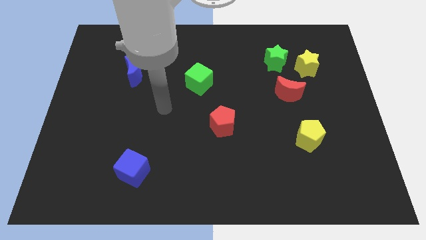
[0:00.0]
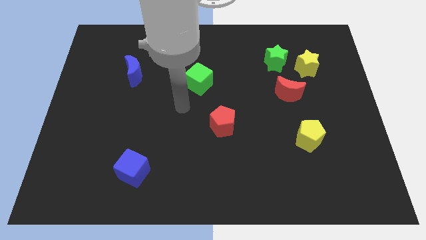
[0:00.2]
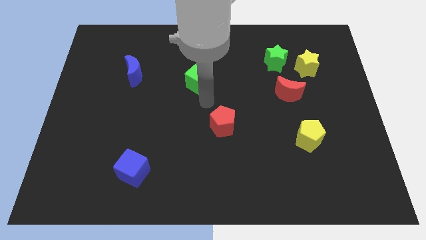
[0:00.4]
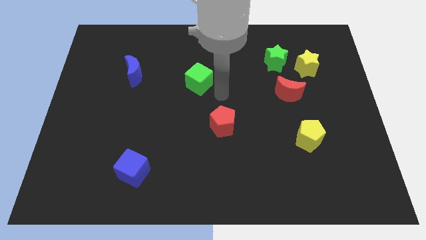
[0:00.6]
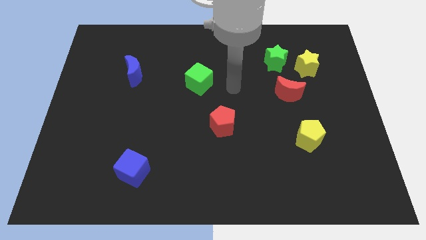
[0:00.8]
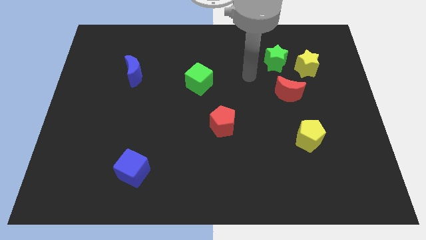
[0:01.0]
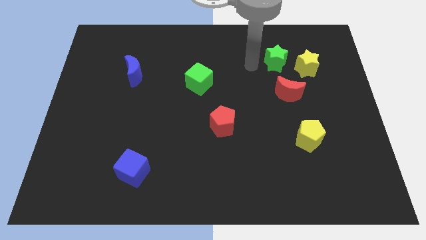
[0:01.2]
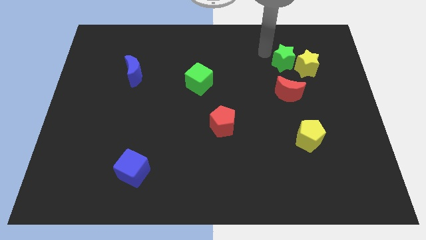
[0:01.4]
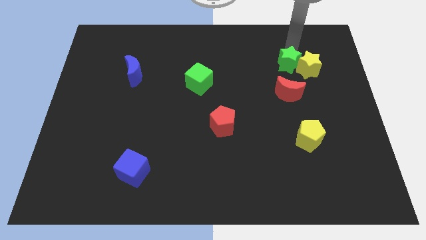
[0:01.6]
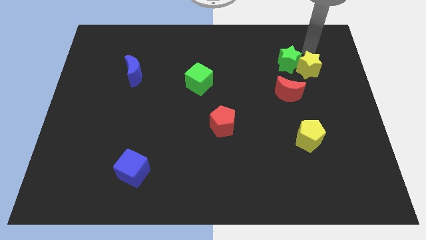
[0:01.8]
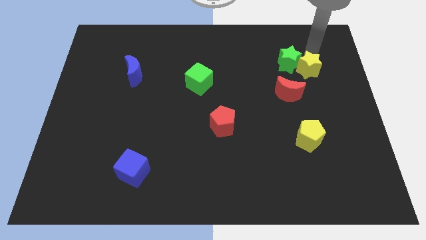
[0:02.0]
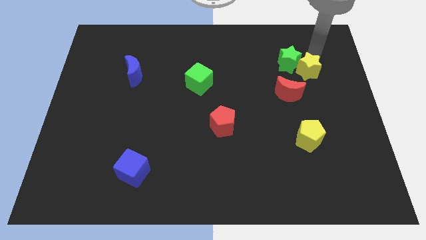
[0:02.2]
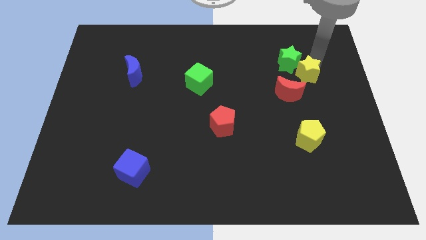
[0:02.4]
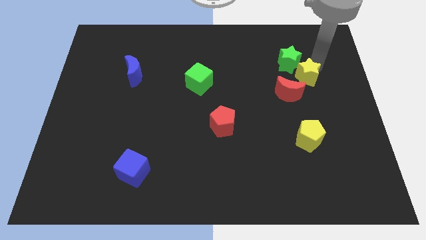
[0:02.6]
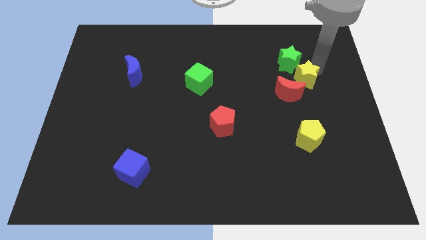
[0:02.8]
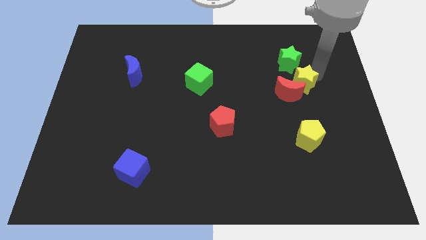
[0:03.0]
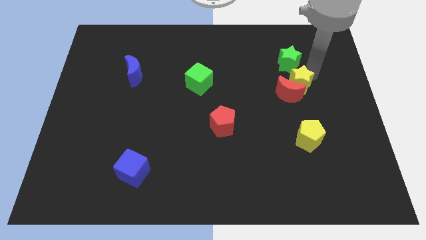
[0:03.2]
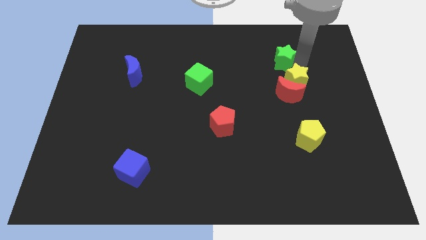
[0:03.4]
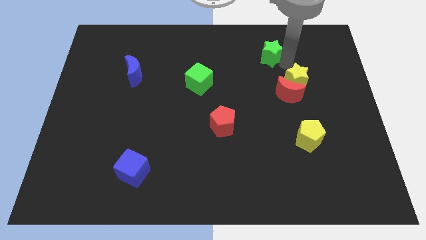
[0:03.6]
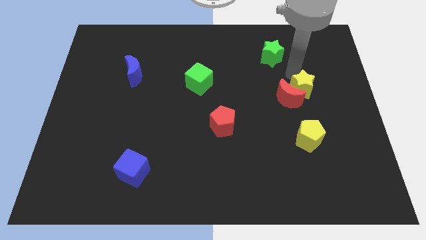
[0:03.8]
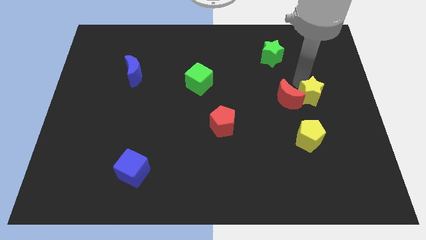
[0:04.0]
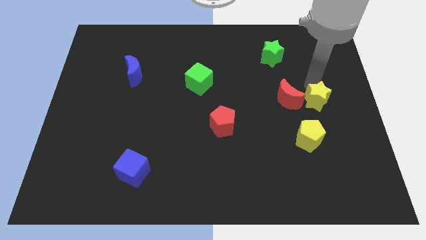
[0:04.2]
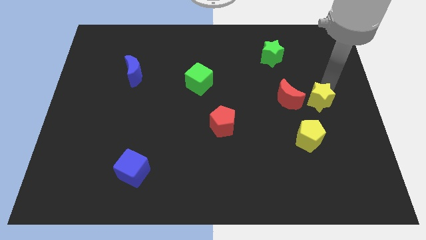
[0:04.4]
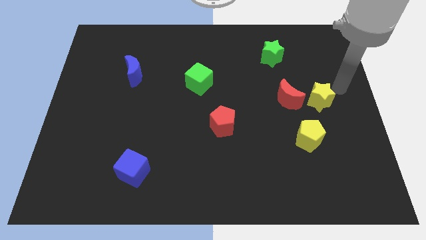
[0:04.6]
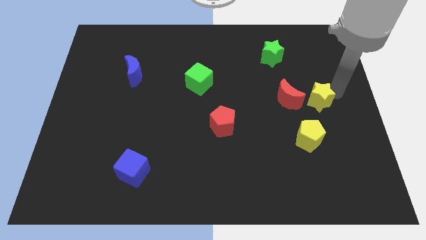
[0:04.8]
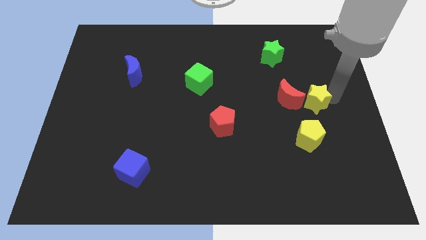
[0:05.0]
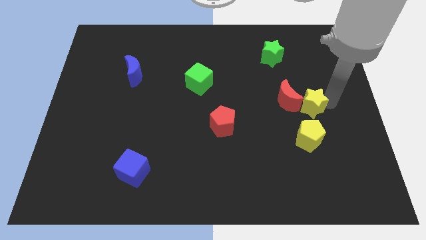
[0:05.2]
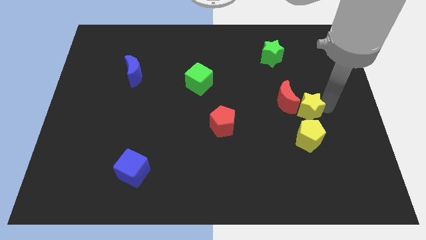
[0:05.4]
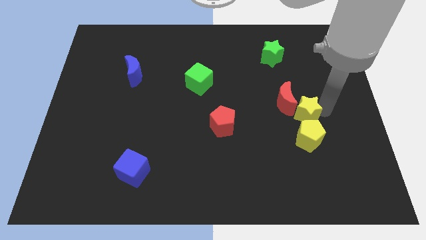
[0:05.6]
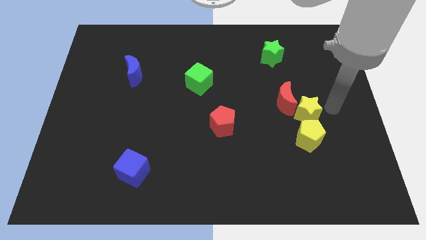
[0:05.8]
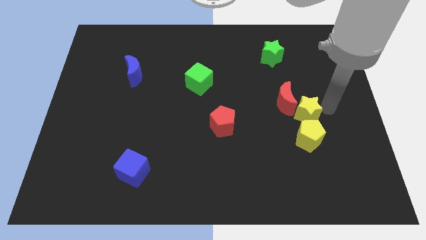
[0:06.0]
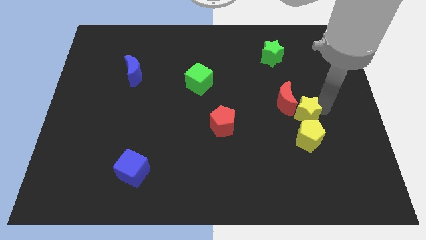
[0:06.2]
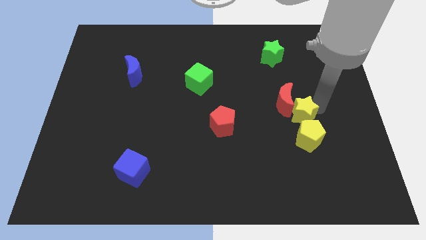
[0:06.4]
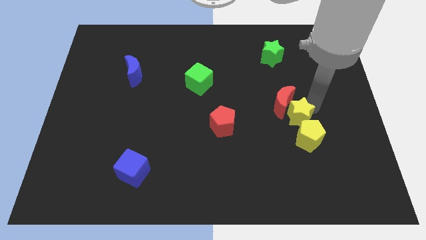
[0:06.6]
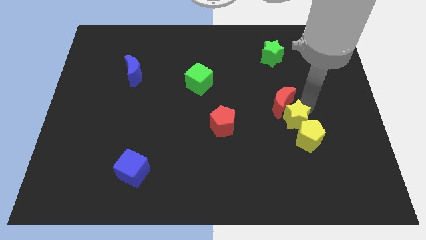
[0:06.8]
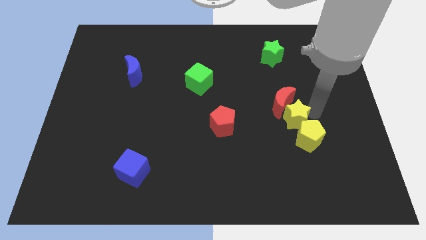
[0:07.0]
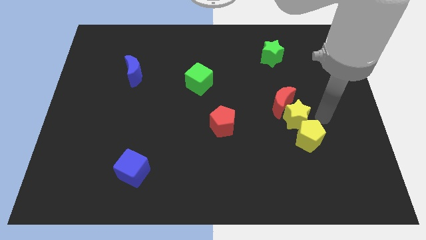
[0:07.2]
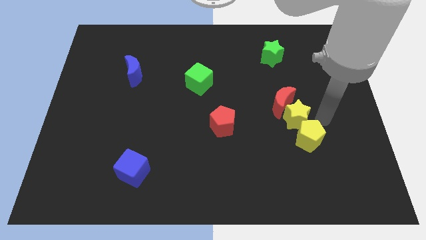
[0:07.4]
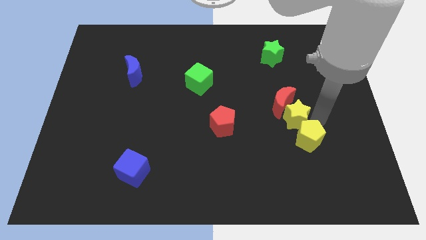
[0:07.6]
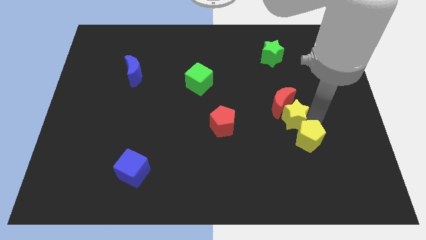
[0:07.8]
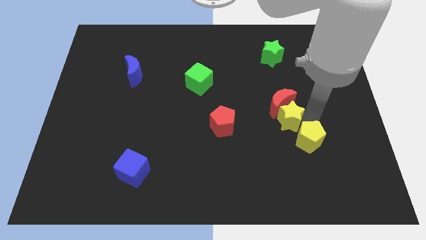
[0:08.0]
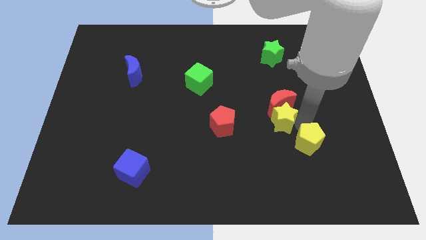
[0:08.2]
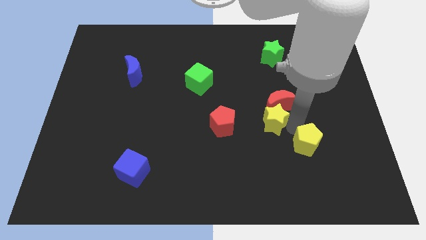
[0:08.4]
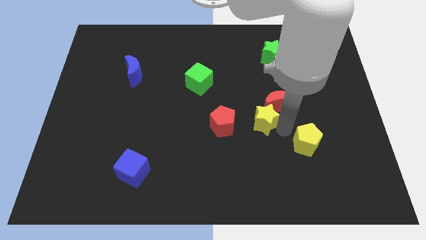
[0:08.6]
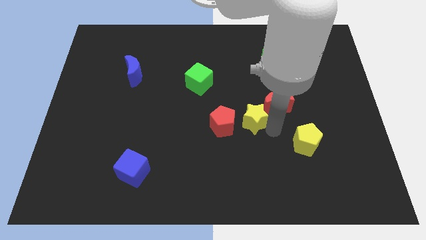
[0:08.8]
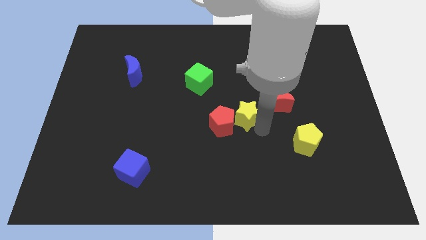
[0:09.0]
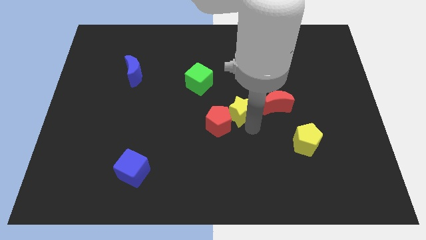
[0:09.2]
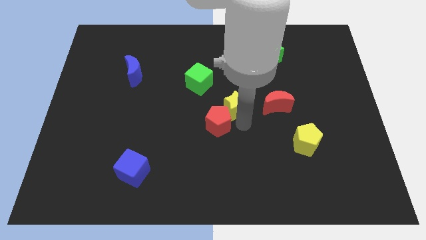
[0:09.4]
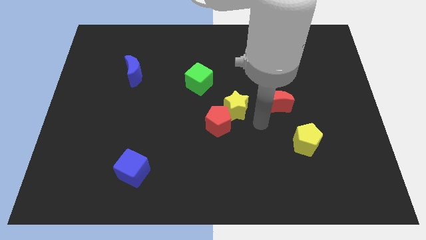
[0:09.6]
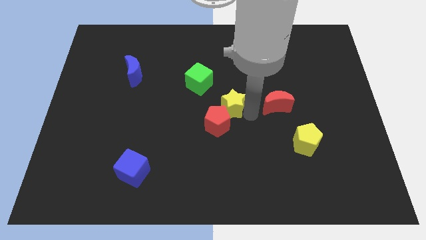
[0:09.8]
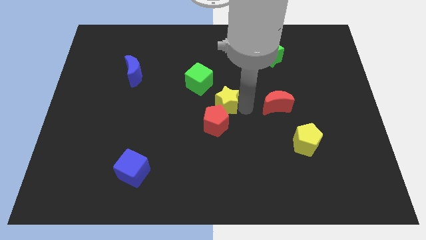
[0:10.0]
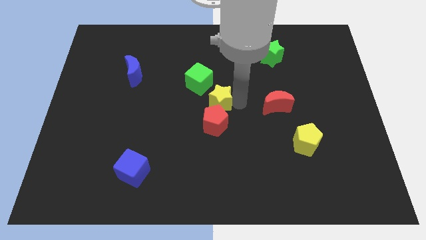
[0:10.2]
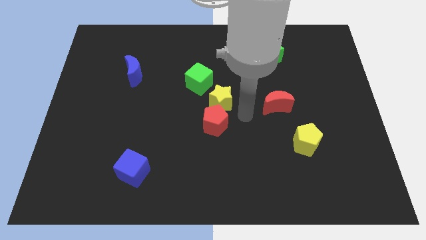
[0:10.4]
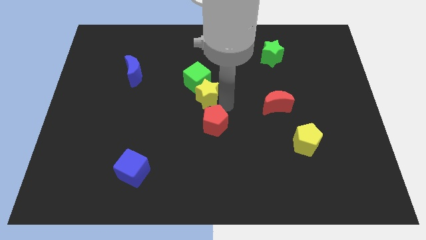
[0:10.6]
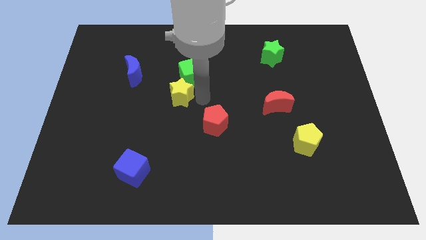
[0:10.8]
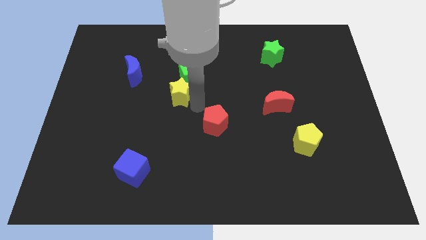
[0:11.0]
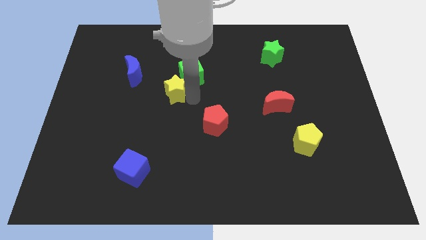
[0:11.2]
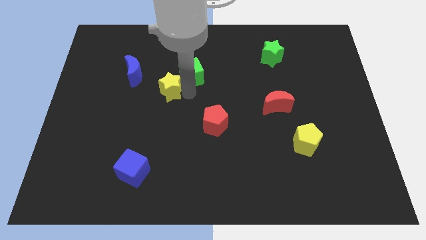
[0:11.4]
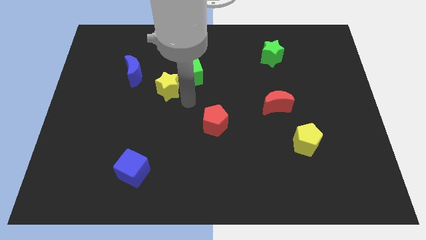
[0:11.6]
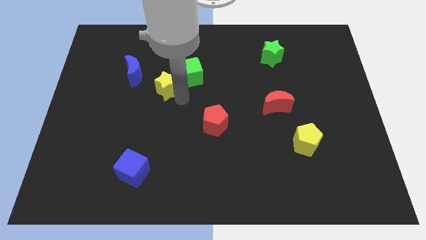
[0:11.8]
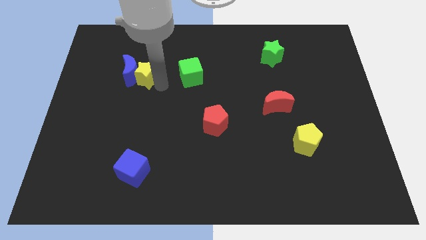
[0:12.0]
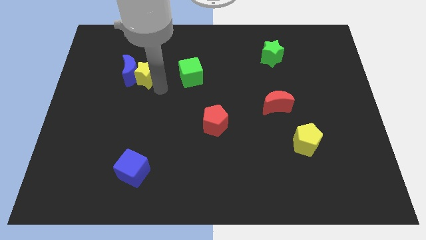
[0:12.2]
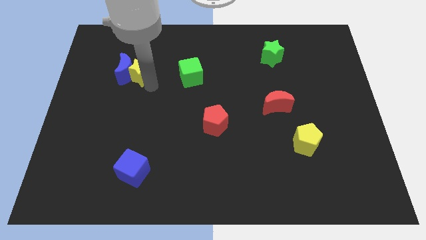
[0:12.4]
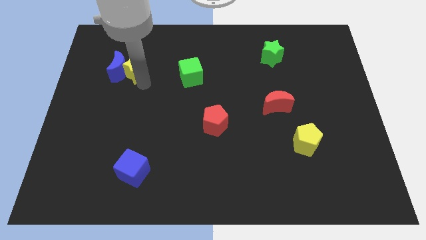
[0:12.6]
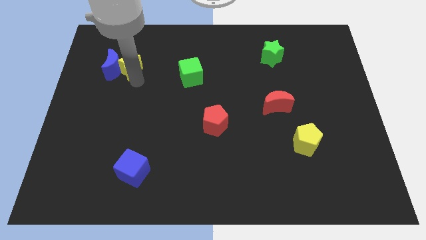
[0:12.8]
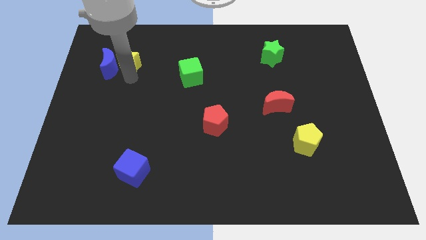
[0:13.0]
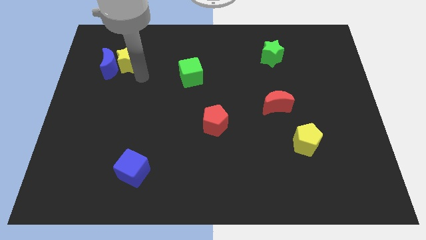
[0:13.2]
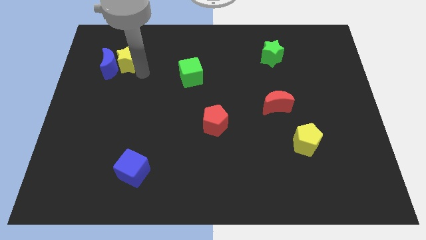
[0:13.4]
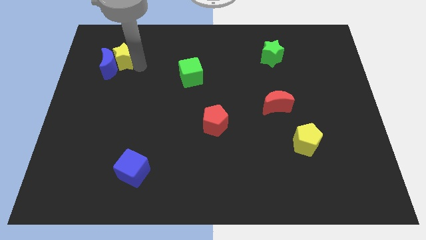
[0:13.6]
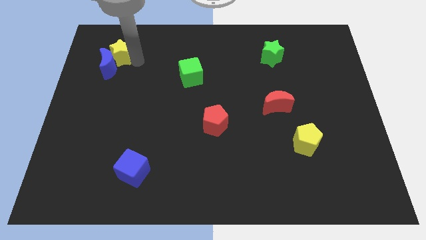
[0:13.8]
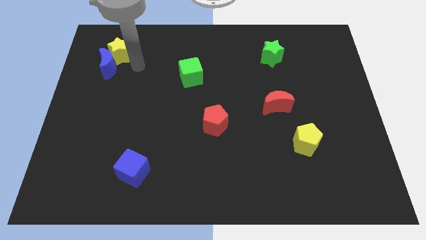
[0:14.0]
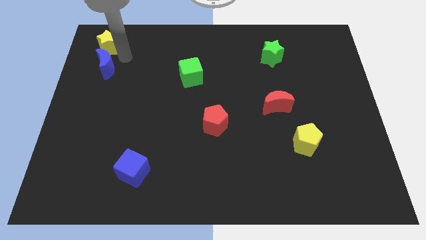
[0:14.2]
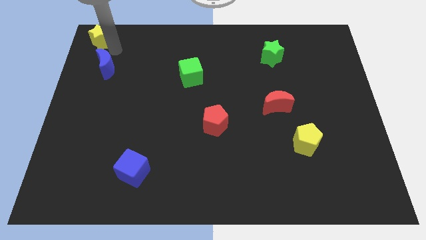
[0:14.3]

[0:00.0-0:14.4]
put the yellow star to the top left of the board
